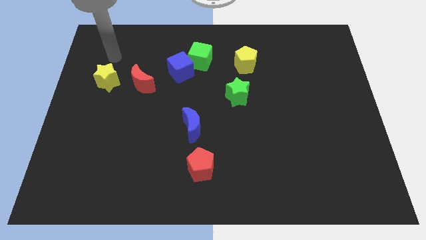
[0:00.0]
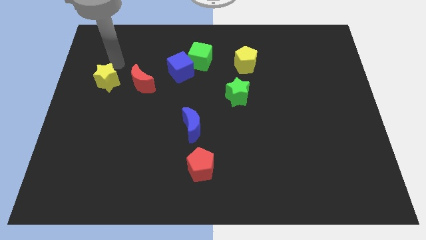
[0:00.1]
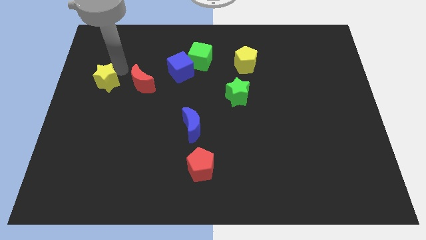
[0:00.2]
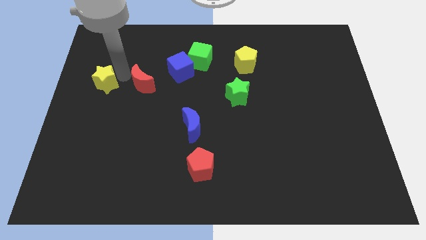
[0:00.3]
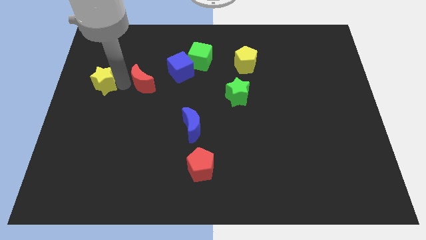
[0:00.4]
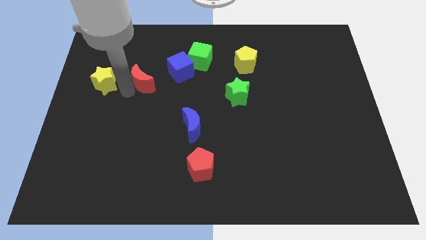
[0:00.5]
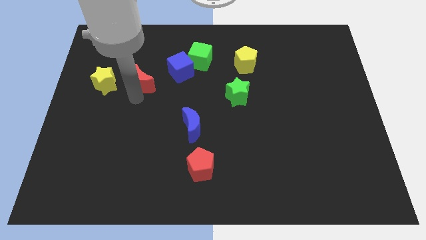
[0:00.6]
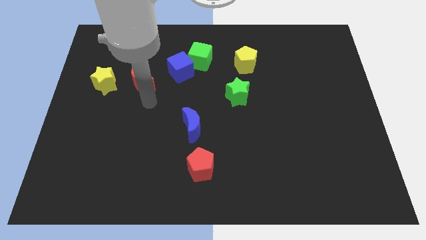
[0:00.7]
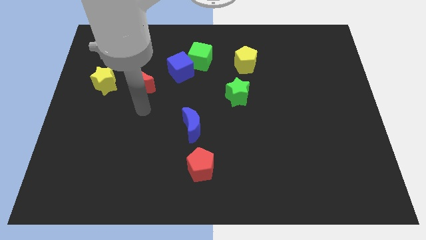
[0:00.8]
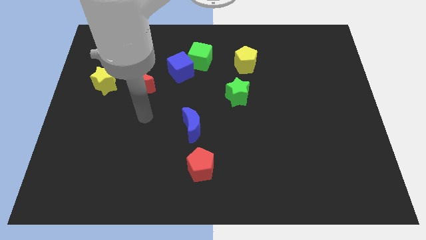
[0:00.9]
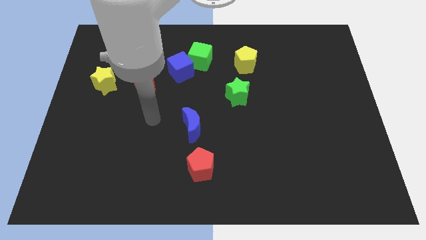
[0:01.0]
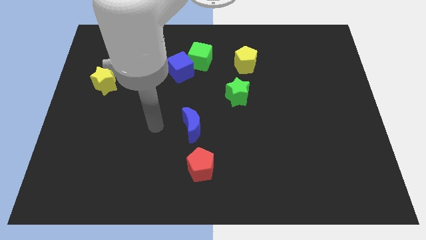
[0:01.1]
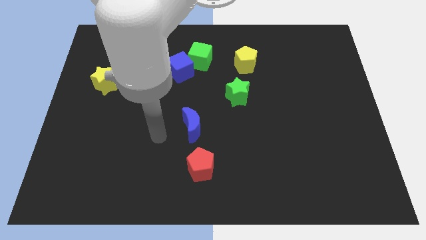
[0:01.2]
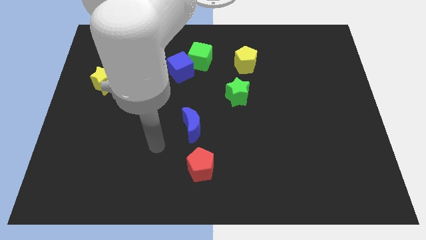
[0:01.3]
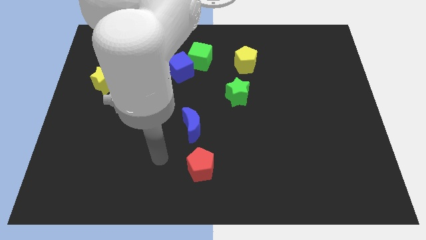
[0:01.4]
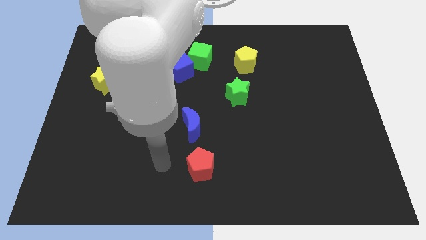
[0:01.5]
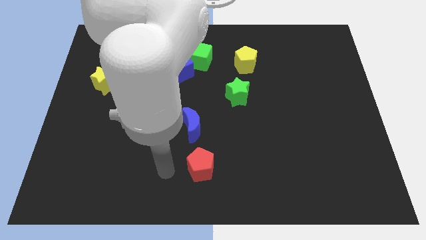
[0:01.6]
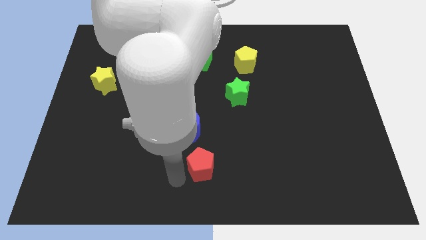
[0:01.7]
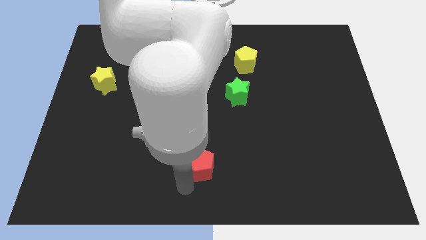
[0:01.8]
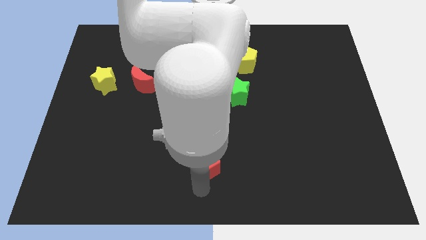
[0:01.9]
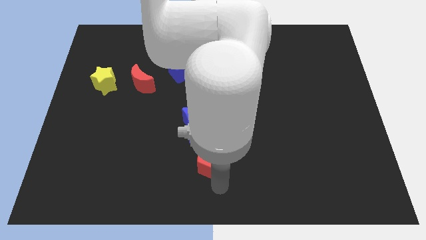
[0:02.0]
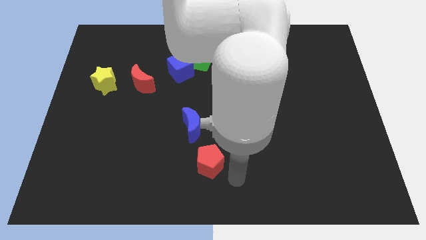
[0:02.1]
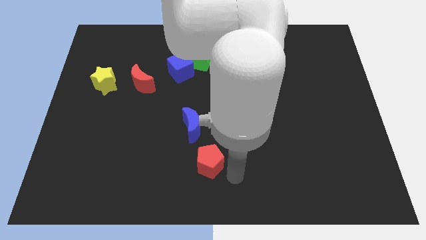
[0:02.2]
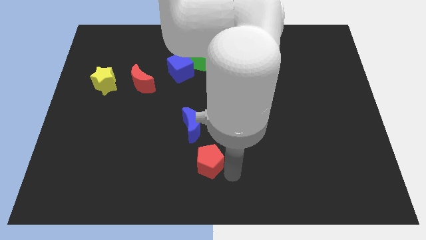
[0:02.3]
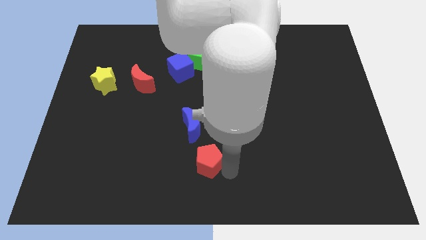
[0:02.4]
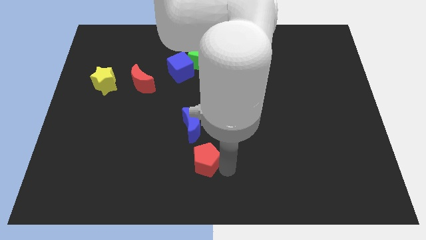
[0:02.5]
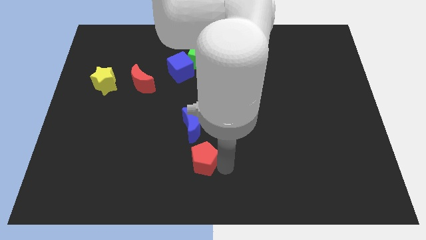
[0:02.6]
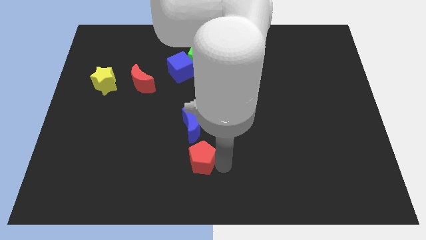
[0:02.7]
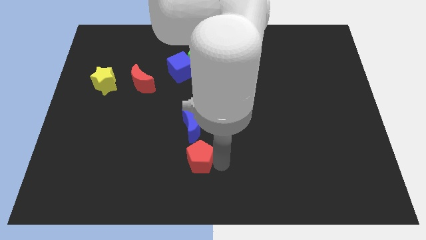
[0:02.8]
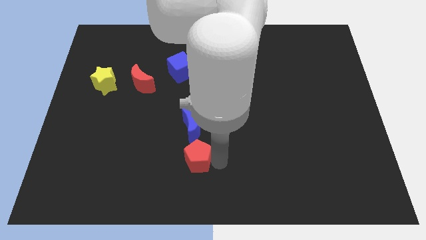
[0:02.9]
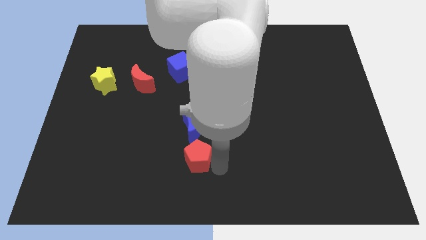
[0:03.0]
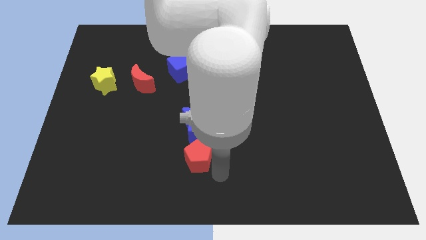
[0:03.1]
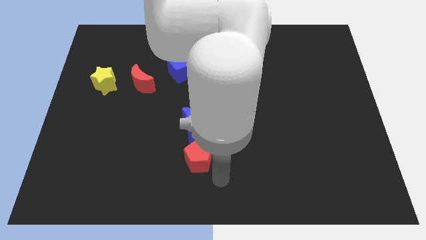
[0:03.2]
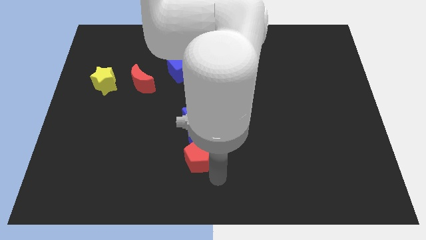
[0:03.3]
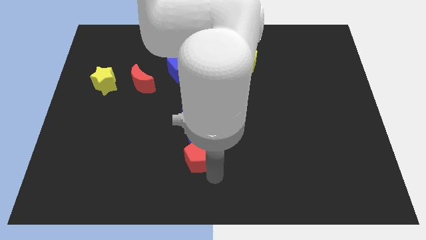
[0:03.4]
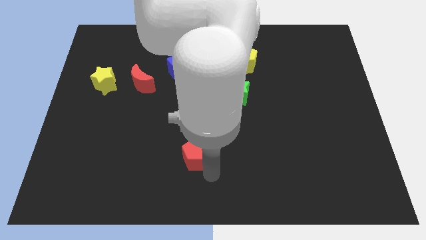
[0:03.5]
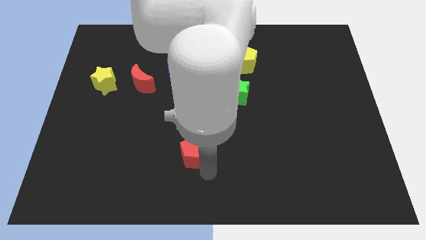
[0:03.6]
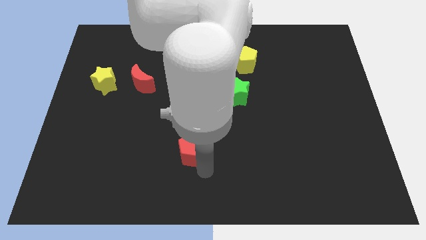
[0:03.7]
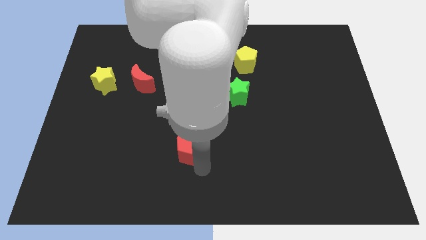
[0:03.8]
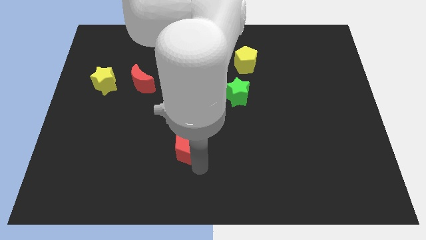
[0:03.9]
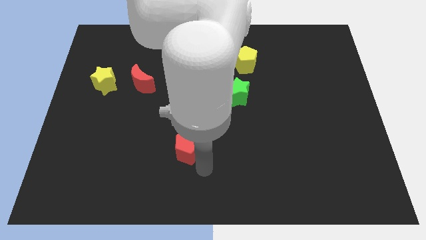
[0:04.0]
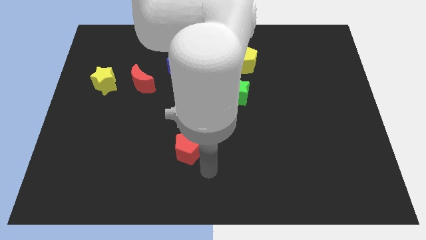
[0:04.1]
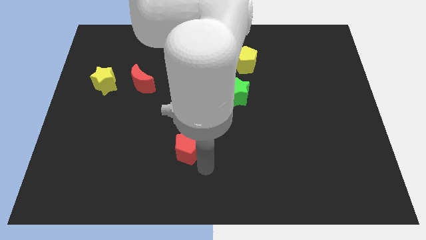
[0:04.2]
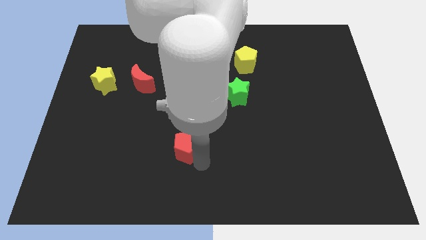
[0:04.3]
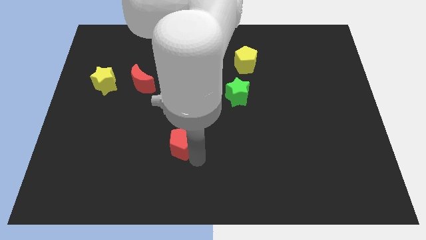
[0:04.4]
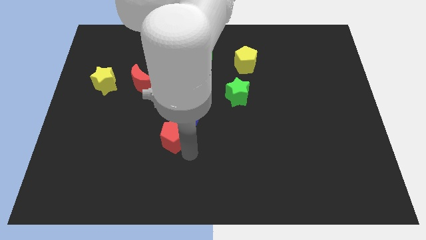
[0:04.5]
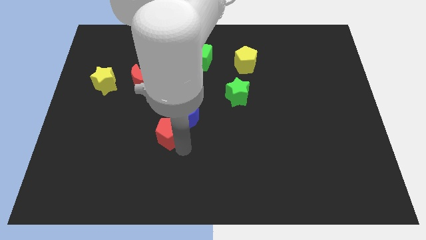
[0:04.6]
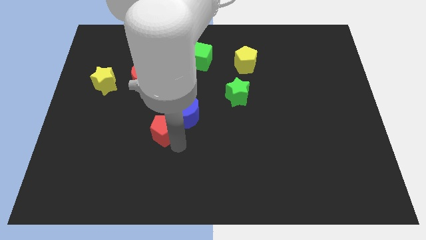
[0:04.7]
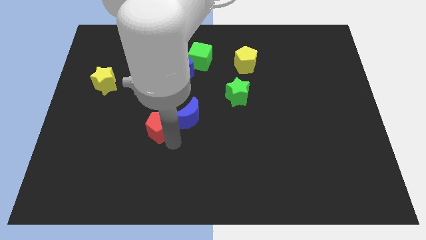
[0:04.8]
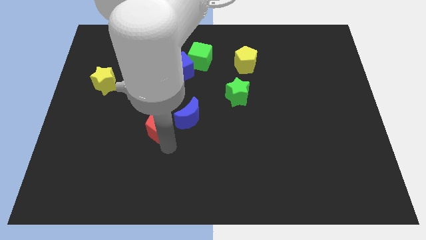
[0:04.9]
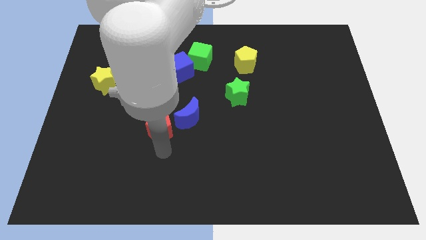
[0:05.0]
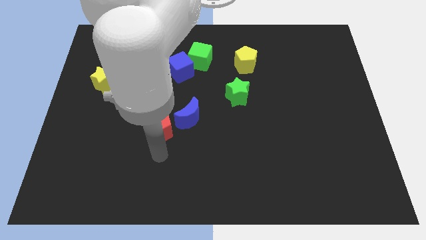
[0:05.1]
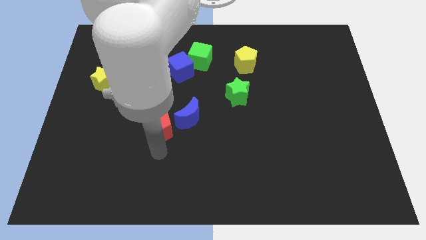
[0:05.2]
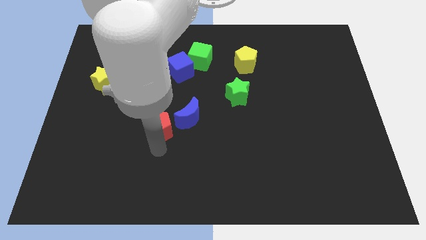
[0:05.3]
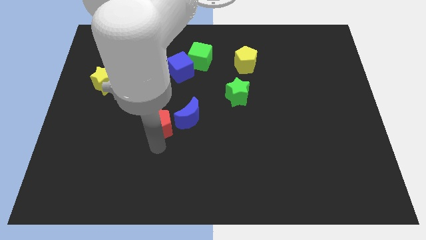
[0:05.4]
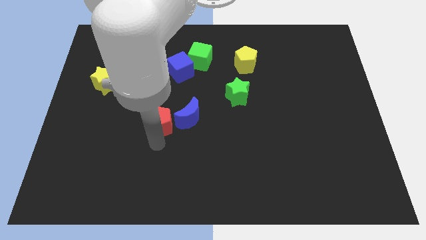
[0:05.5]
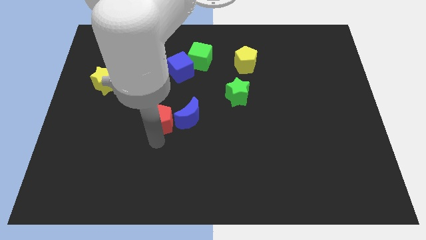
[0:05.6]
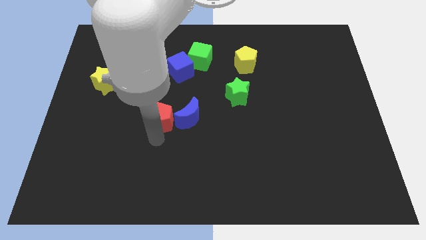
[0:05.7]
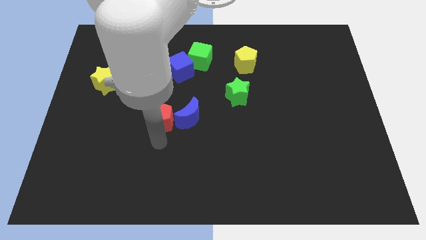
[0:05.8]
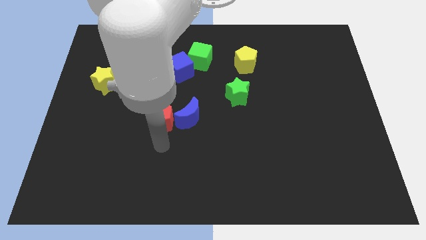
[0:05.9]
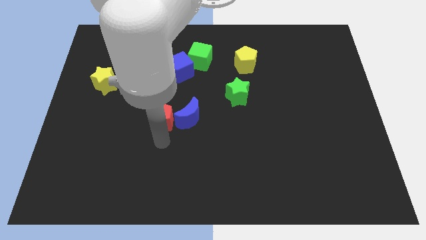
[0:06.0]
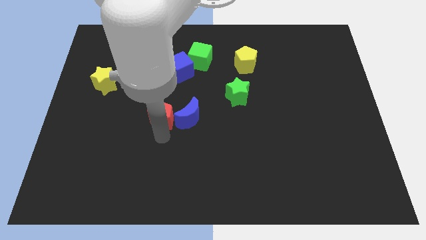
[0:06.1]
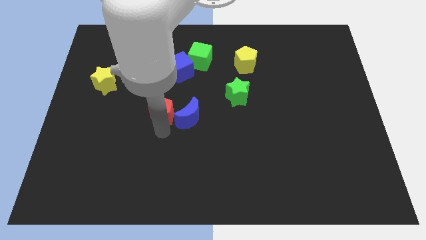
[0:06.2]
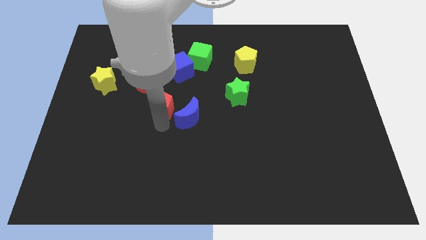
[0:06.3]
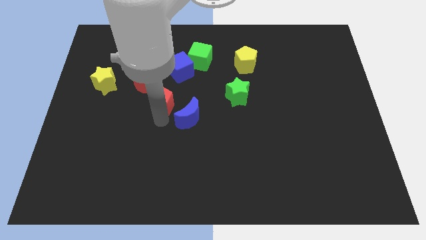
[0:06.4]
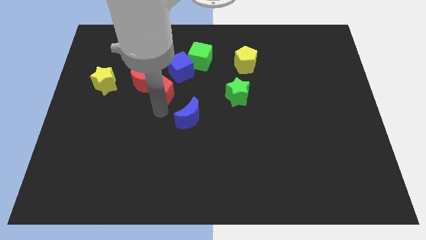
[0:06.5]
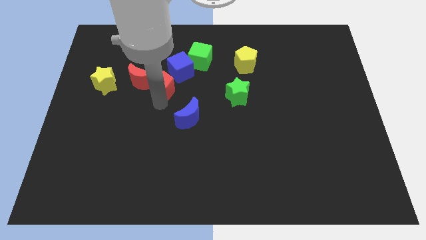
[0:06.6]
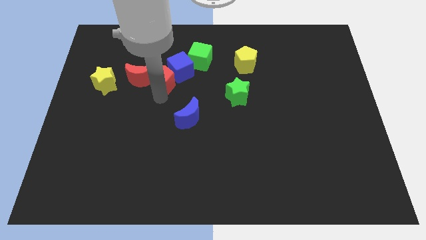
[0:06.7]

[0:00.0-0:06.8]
move the red pentagon to the blue cube

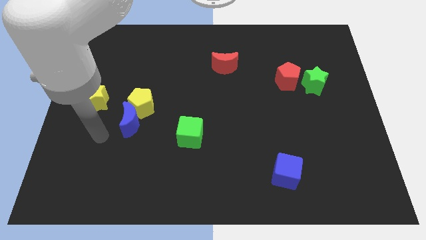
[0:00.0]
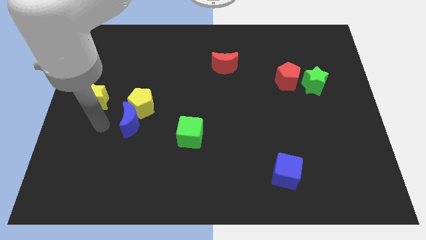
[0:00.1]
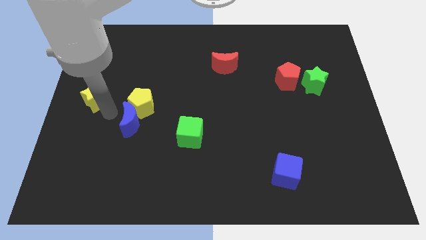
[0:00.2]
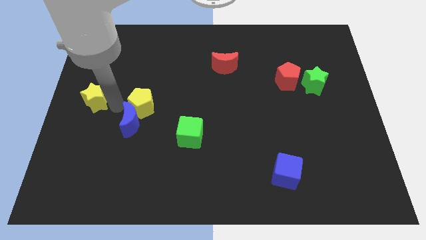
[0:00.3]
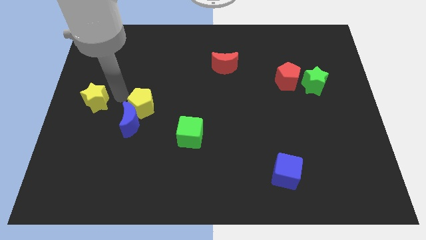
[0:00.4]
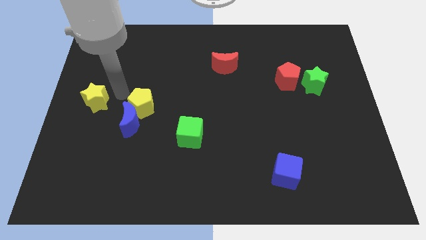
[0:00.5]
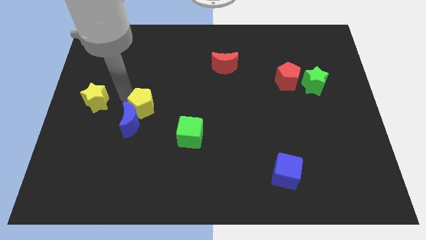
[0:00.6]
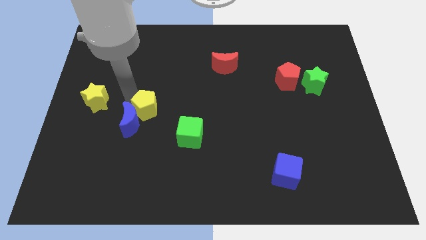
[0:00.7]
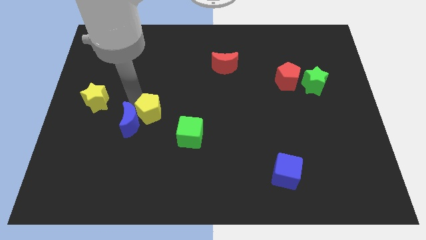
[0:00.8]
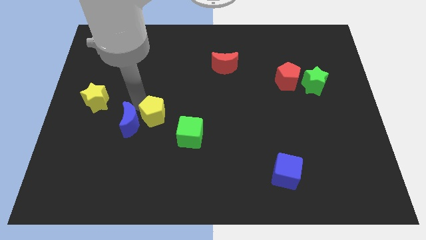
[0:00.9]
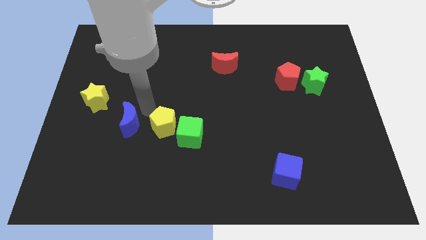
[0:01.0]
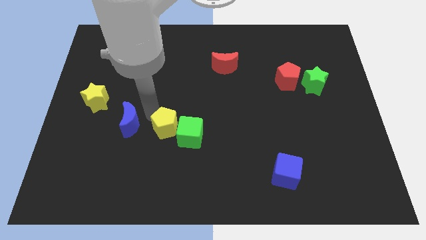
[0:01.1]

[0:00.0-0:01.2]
move the yellow pentagon towards the green cube
